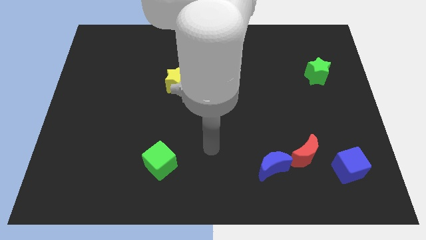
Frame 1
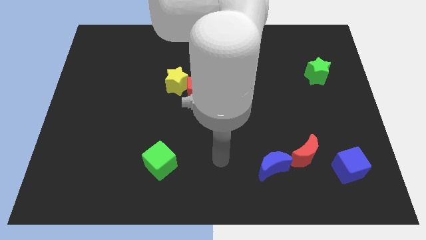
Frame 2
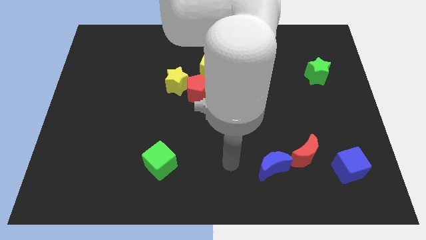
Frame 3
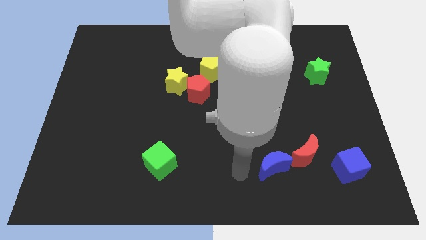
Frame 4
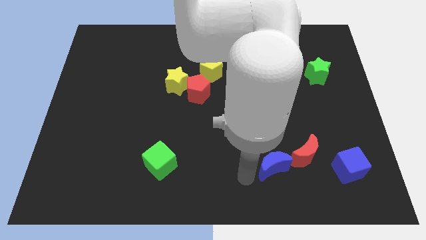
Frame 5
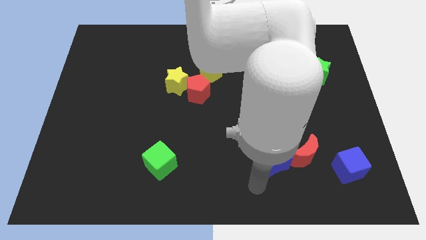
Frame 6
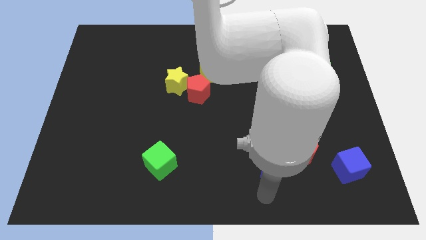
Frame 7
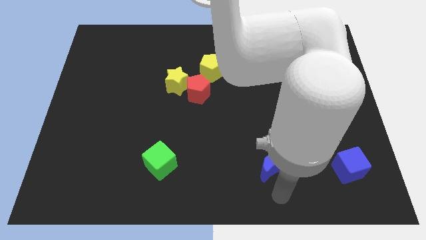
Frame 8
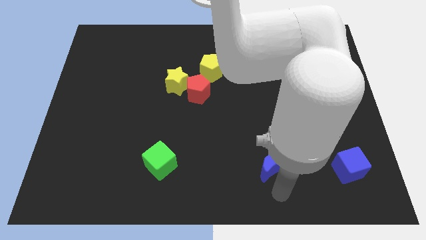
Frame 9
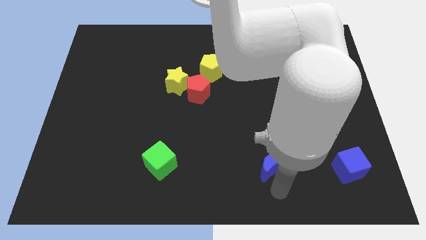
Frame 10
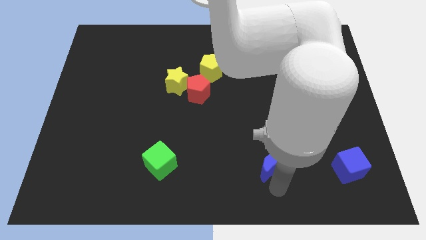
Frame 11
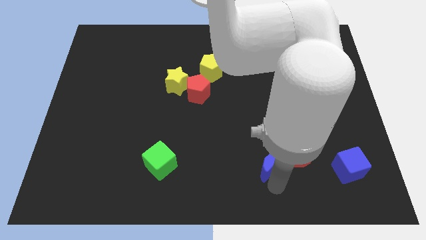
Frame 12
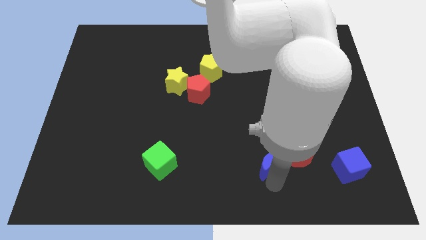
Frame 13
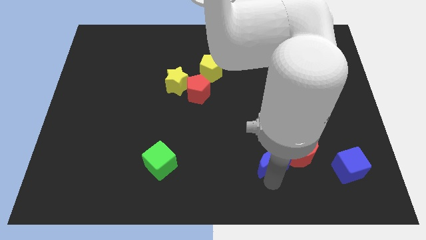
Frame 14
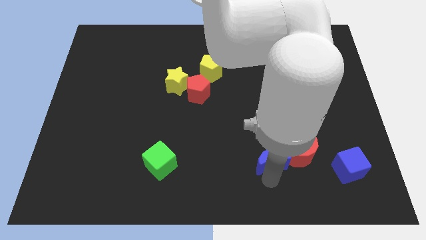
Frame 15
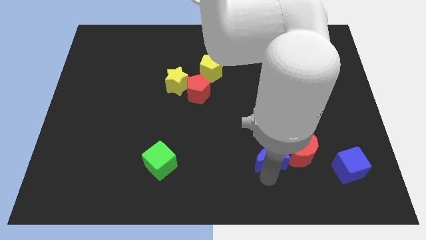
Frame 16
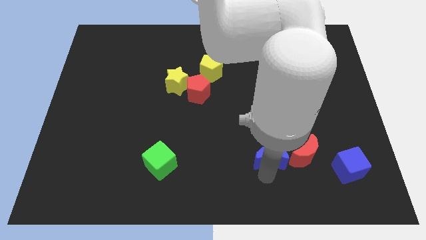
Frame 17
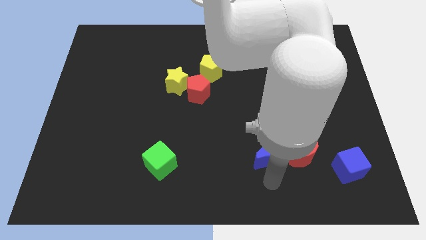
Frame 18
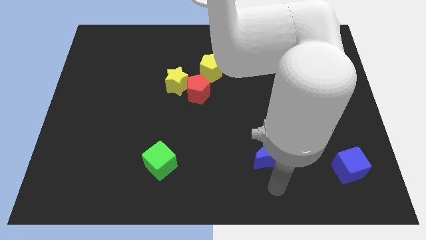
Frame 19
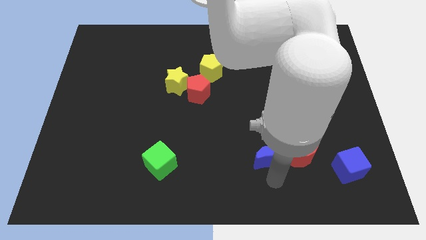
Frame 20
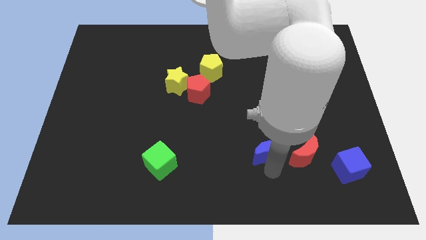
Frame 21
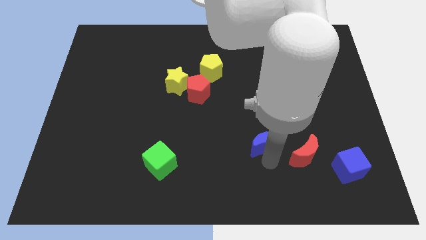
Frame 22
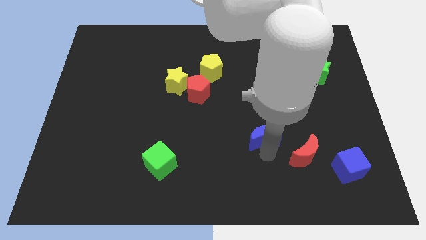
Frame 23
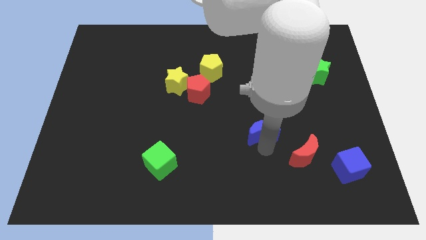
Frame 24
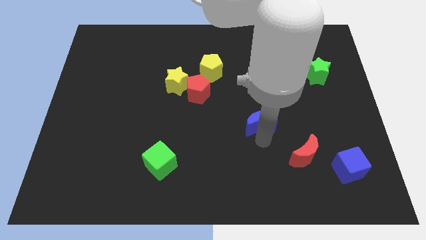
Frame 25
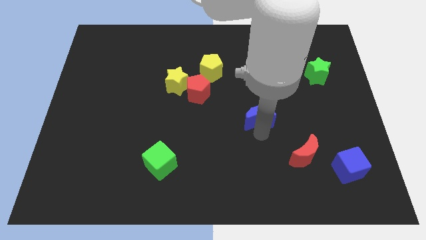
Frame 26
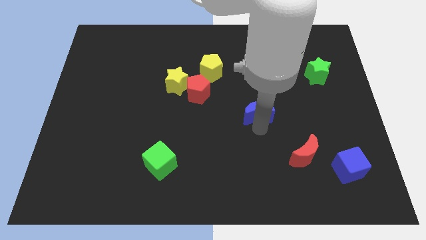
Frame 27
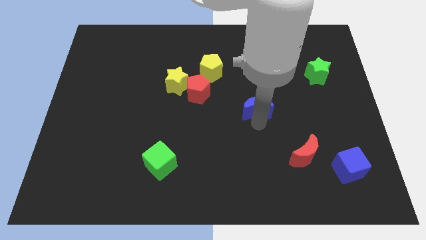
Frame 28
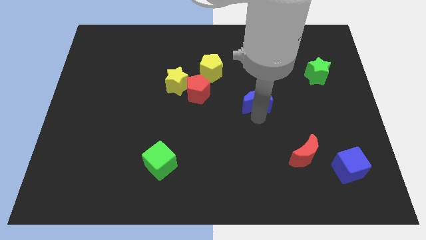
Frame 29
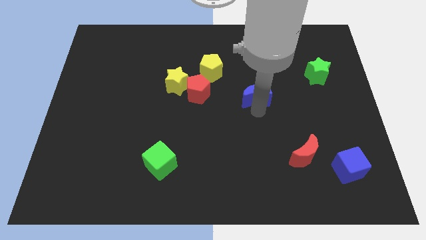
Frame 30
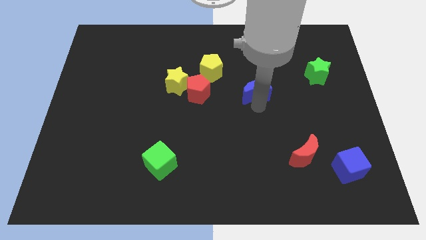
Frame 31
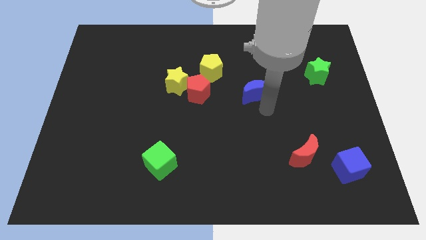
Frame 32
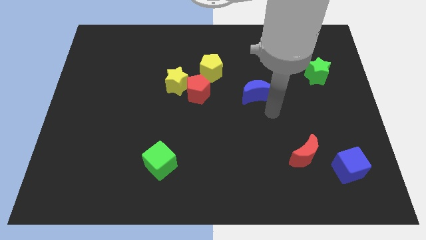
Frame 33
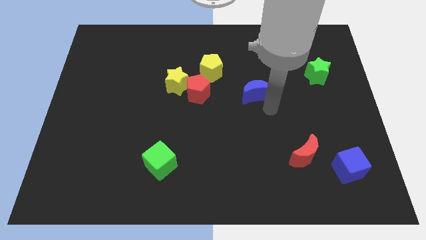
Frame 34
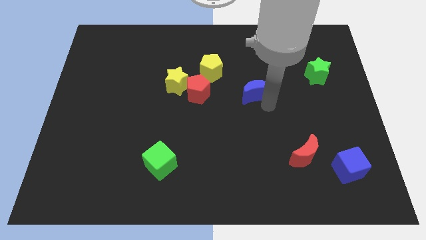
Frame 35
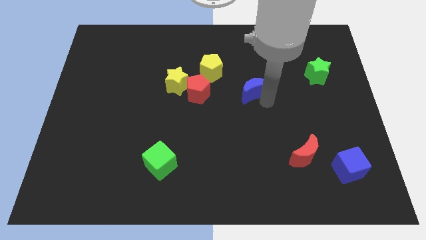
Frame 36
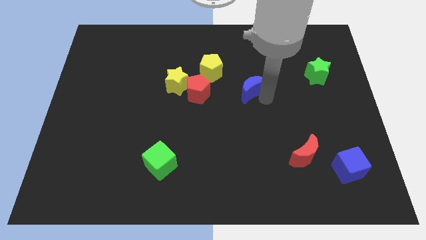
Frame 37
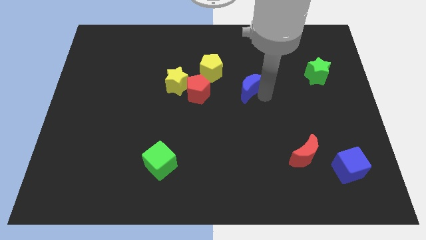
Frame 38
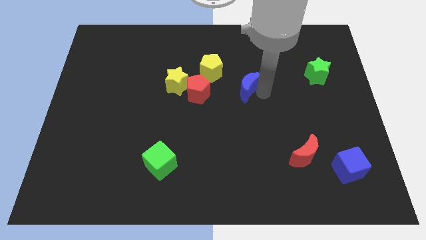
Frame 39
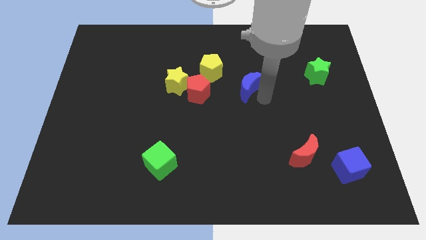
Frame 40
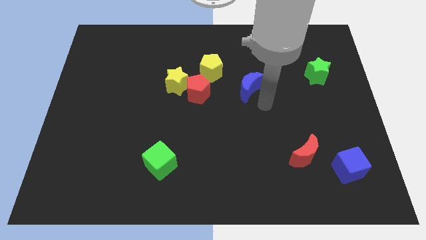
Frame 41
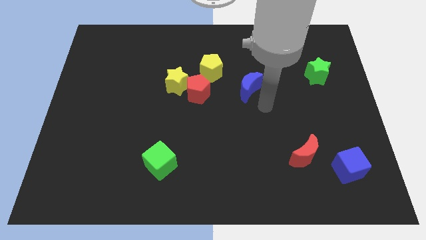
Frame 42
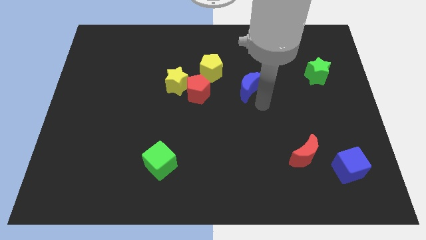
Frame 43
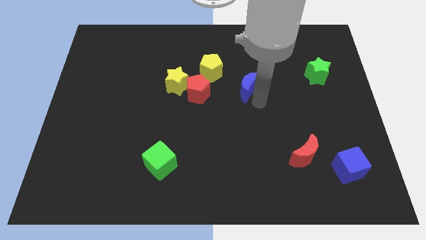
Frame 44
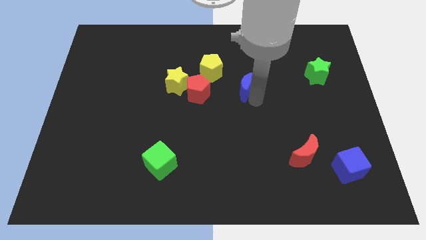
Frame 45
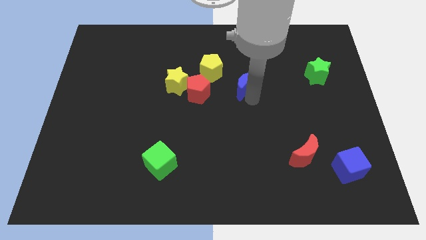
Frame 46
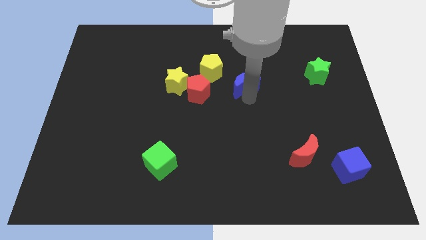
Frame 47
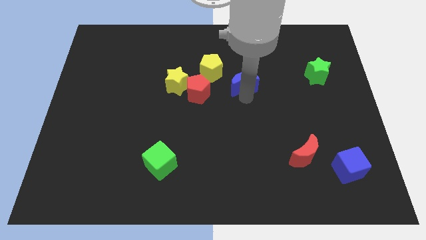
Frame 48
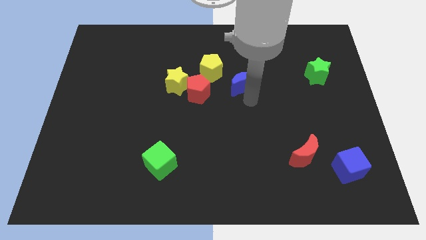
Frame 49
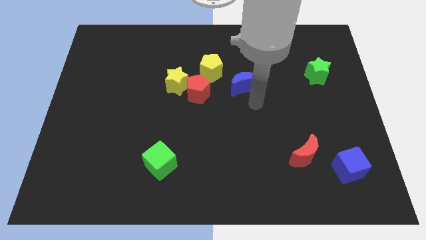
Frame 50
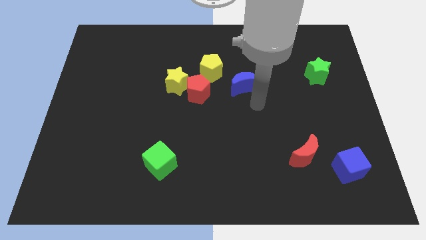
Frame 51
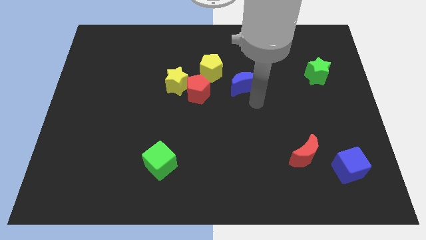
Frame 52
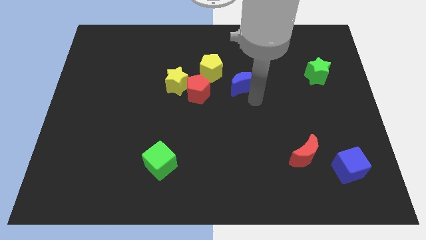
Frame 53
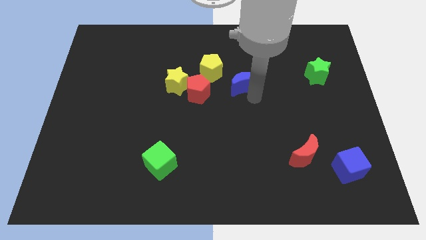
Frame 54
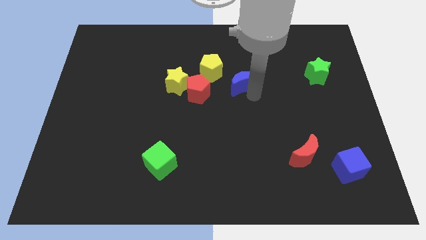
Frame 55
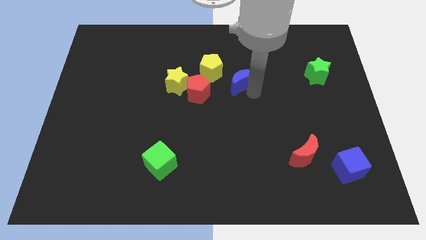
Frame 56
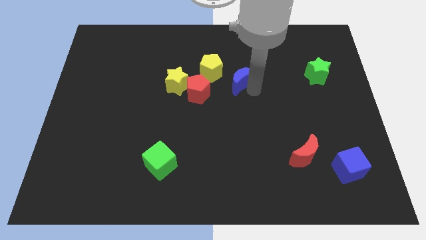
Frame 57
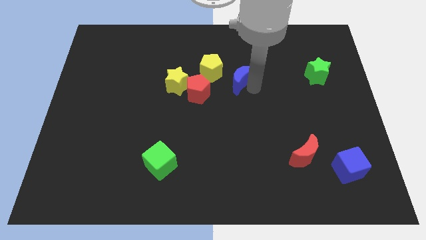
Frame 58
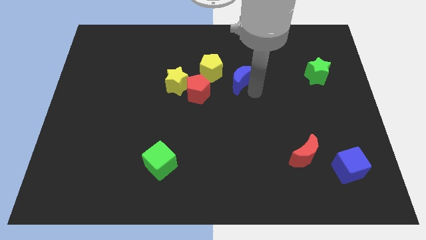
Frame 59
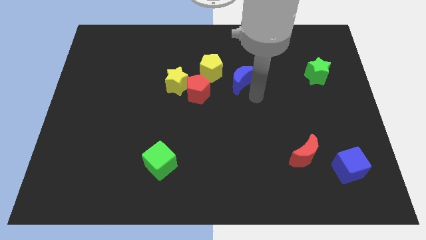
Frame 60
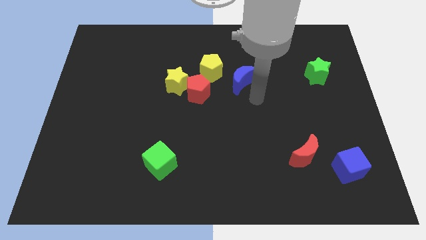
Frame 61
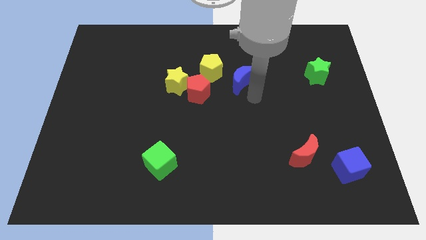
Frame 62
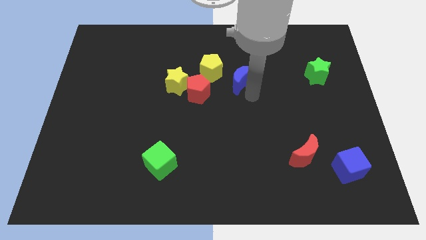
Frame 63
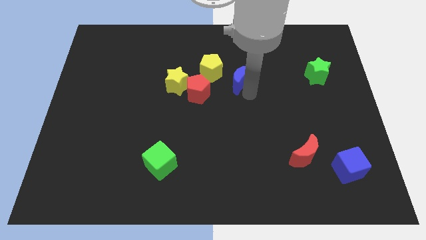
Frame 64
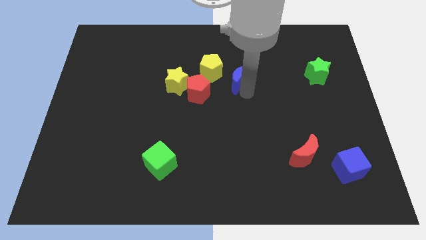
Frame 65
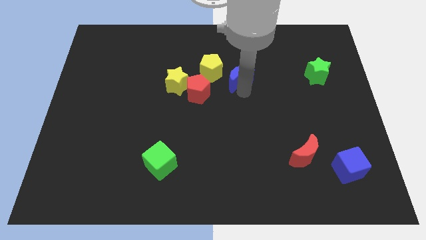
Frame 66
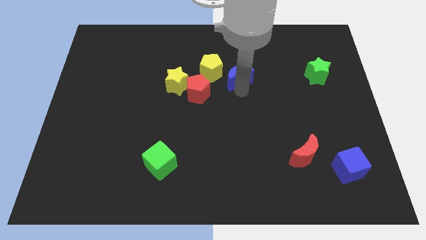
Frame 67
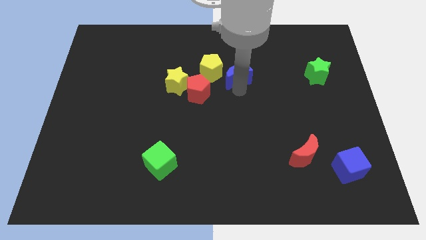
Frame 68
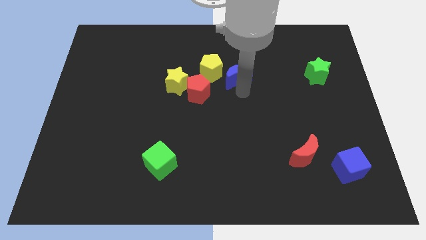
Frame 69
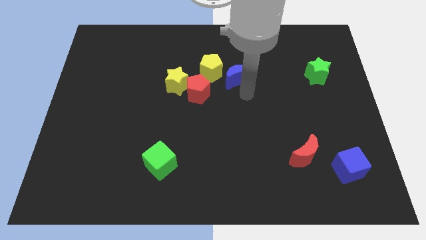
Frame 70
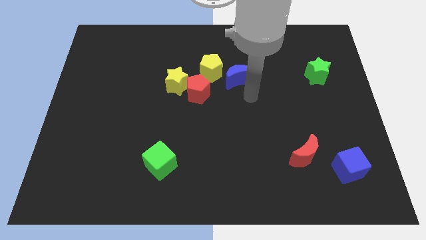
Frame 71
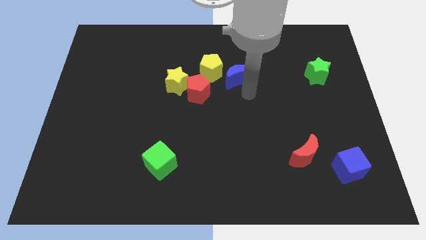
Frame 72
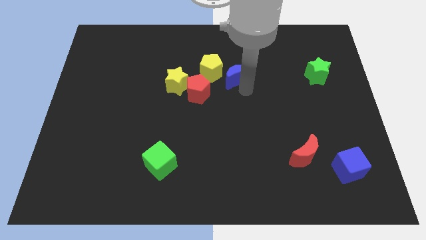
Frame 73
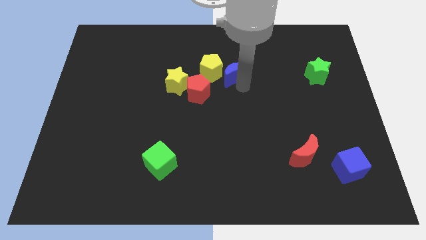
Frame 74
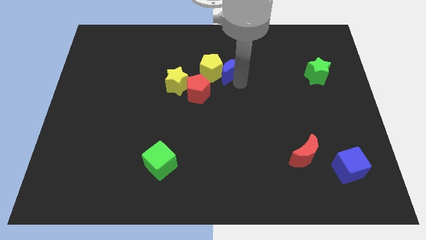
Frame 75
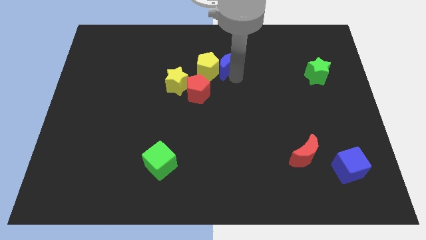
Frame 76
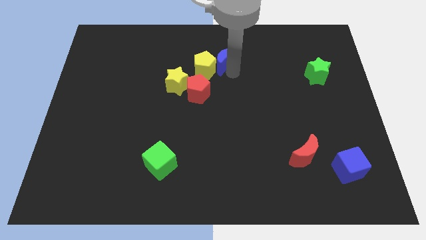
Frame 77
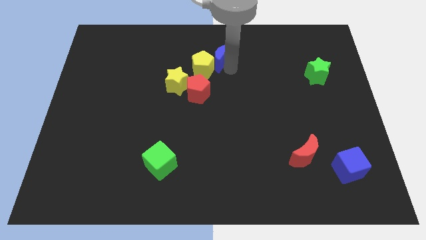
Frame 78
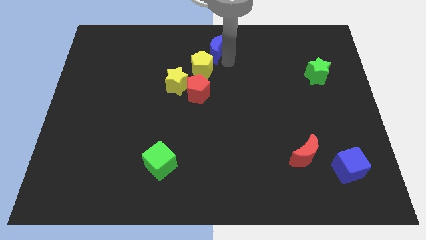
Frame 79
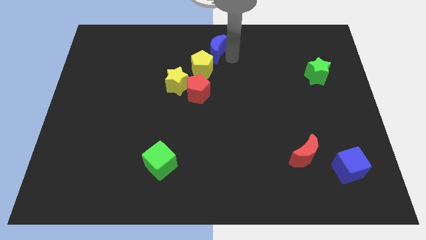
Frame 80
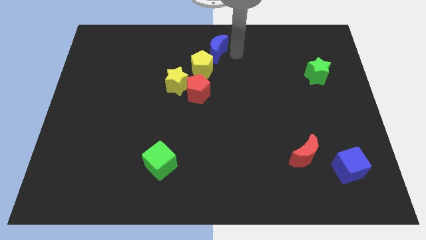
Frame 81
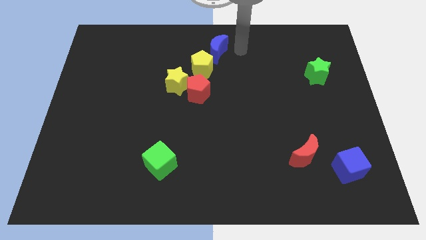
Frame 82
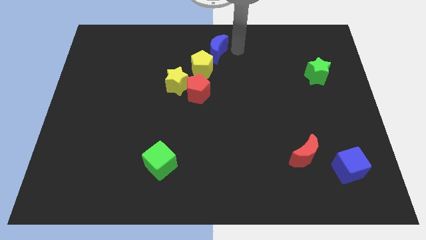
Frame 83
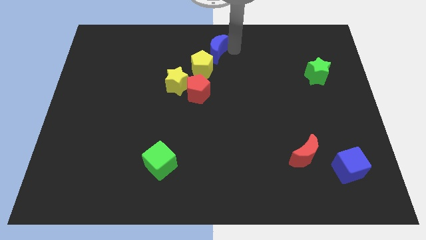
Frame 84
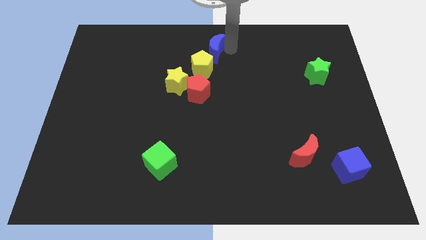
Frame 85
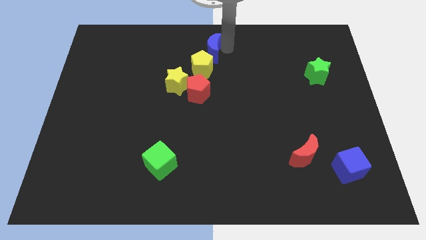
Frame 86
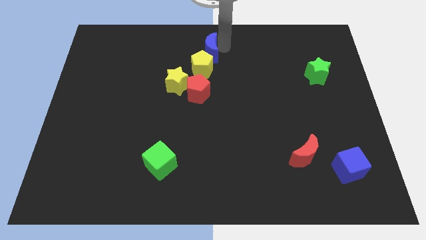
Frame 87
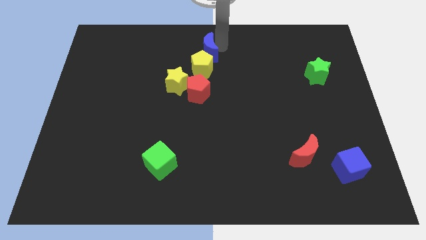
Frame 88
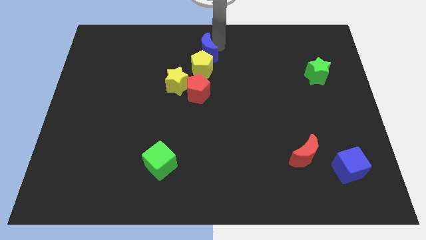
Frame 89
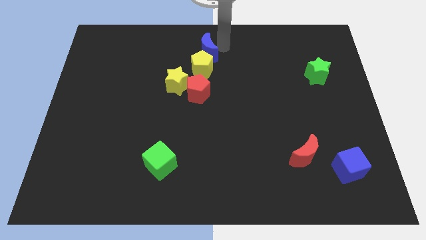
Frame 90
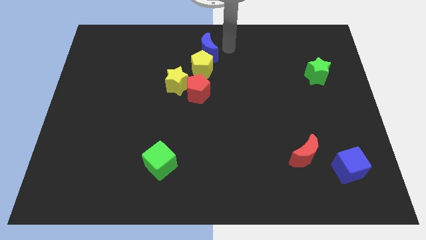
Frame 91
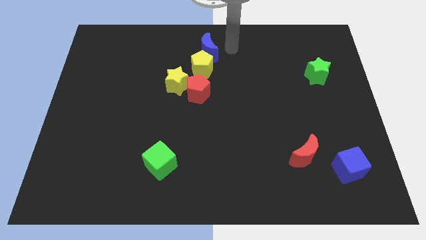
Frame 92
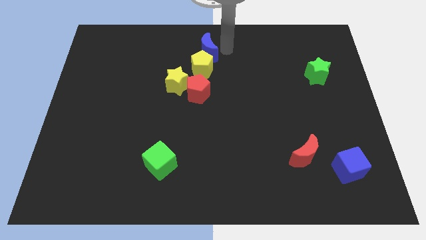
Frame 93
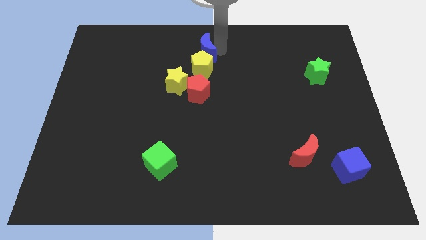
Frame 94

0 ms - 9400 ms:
put the blue moon to the top left of the yellow pentagon
